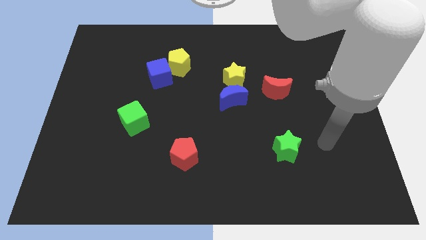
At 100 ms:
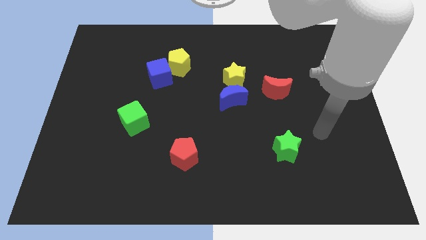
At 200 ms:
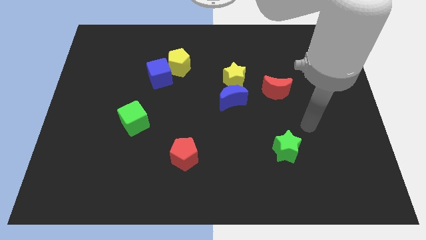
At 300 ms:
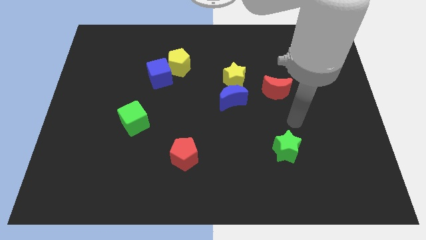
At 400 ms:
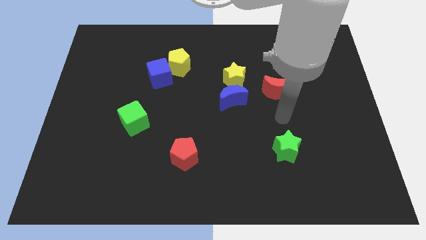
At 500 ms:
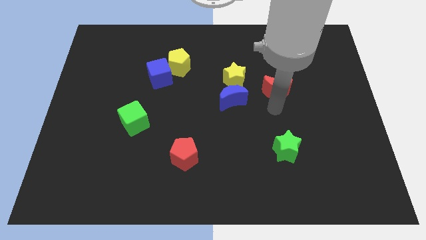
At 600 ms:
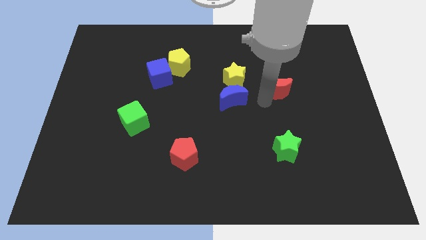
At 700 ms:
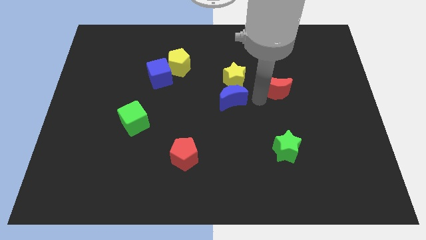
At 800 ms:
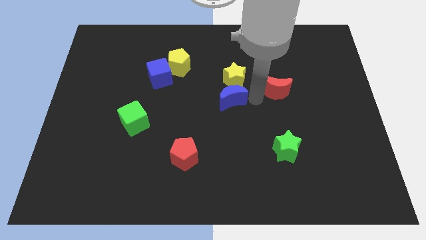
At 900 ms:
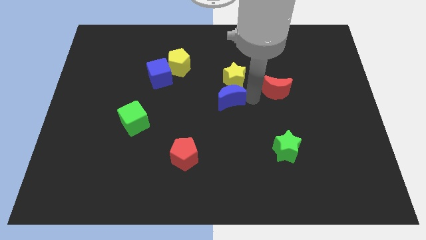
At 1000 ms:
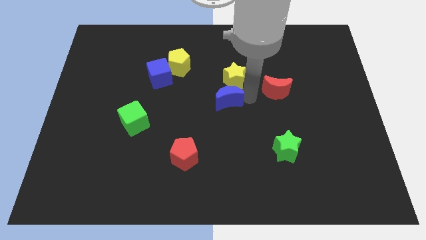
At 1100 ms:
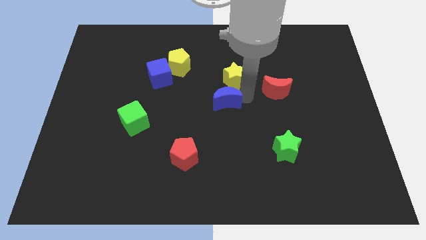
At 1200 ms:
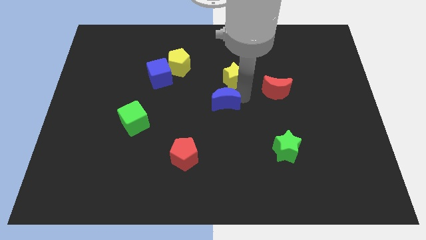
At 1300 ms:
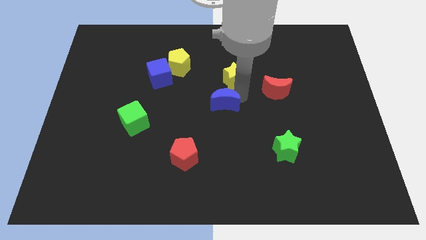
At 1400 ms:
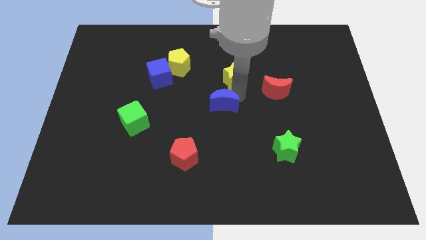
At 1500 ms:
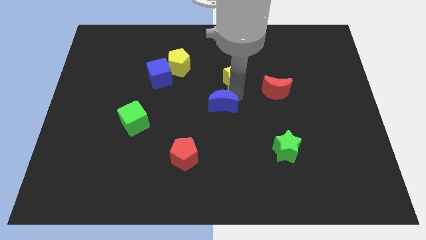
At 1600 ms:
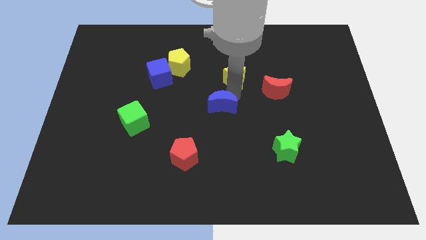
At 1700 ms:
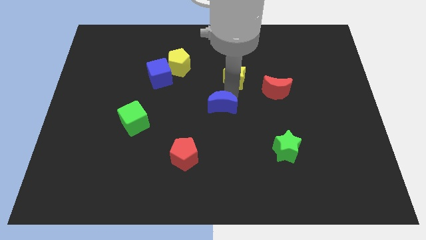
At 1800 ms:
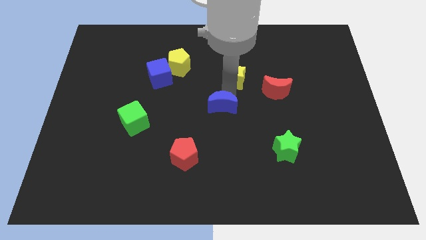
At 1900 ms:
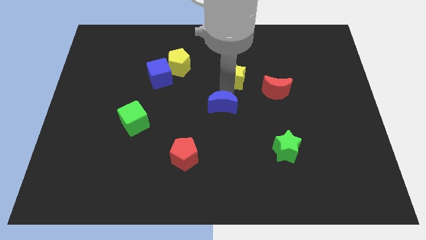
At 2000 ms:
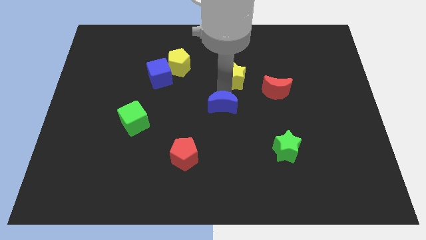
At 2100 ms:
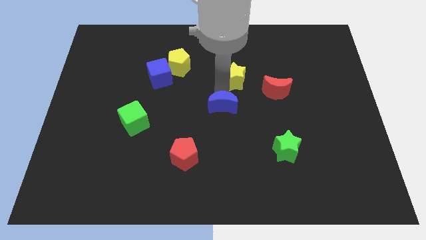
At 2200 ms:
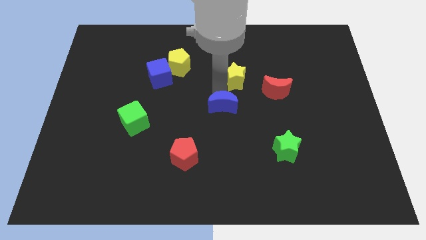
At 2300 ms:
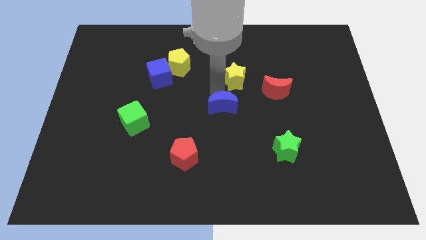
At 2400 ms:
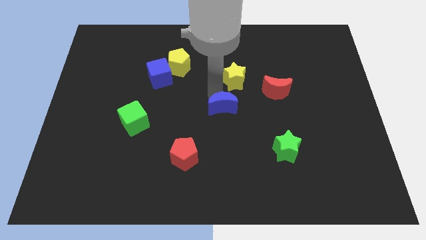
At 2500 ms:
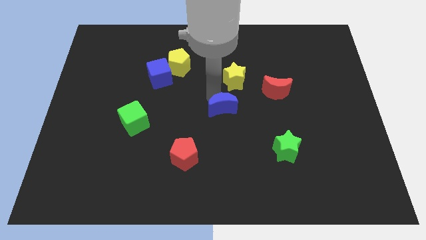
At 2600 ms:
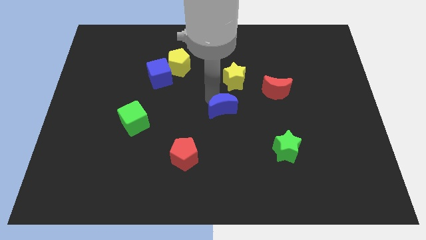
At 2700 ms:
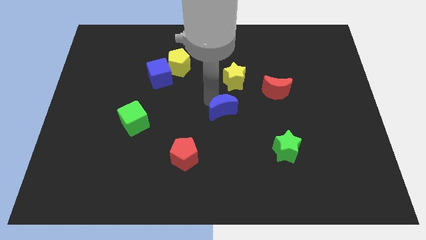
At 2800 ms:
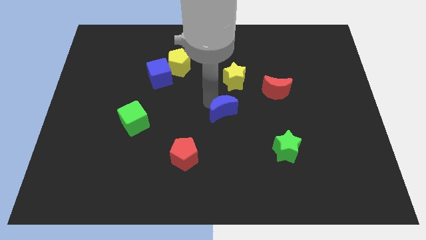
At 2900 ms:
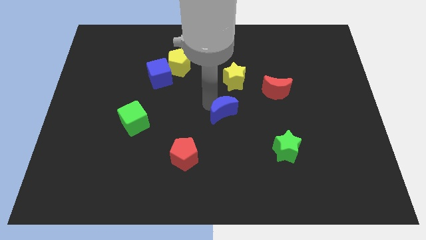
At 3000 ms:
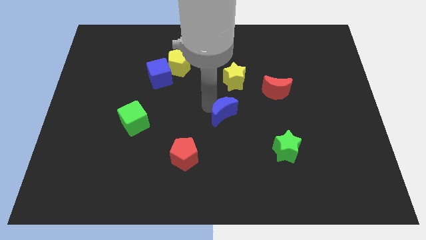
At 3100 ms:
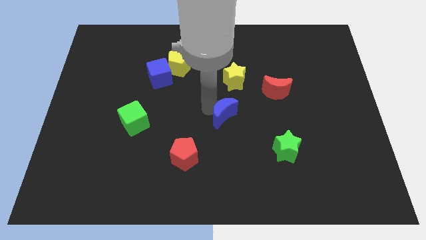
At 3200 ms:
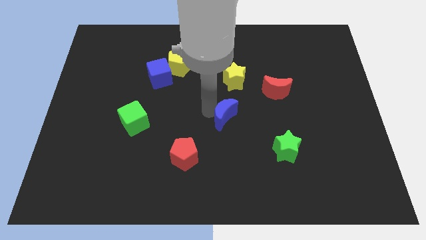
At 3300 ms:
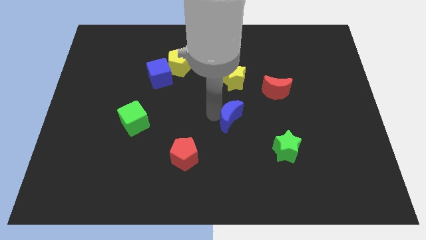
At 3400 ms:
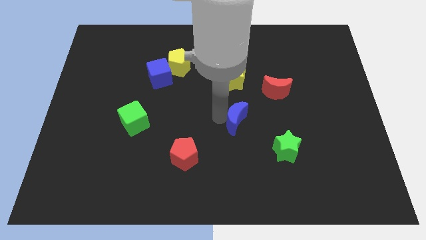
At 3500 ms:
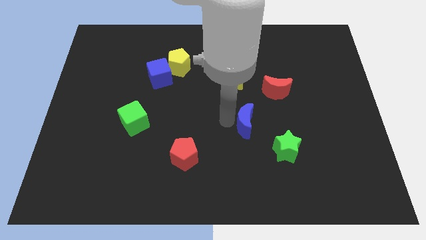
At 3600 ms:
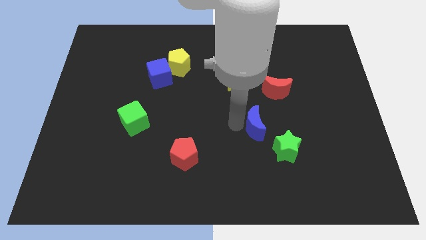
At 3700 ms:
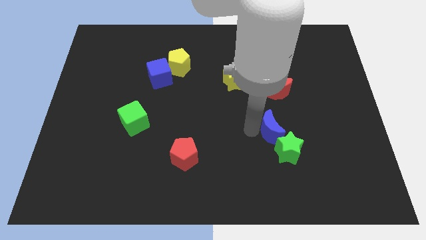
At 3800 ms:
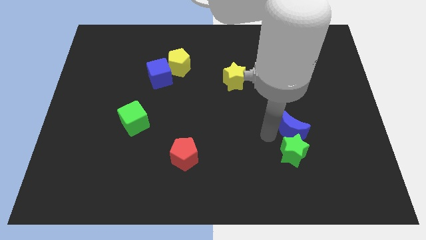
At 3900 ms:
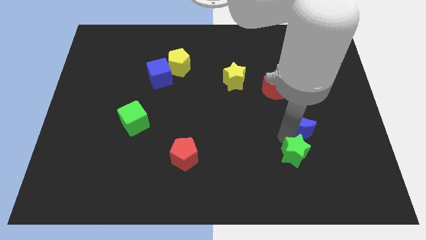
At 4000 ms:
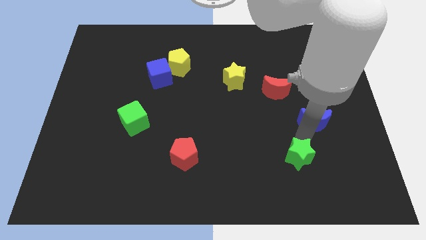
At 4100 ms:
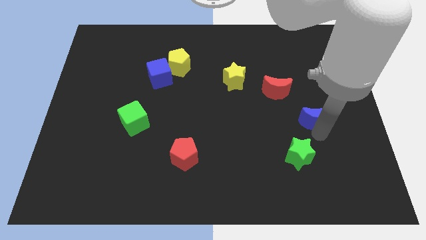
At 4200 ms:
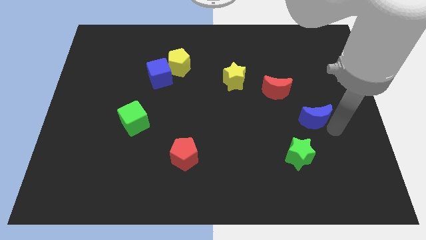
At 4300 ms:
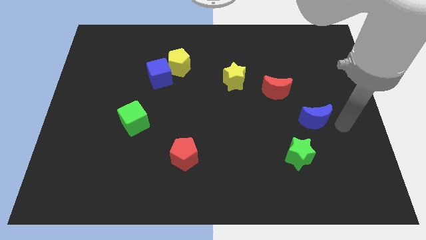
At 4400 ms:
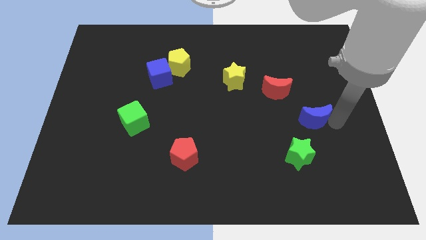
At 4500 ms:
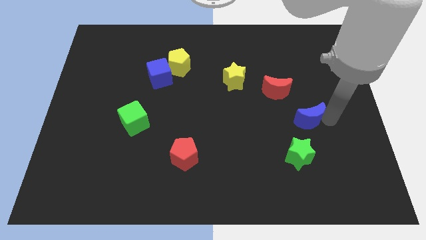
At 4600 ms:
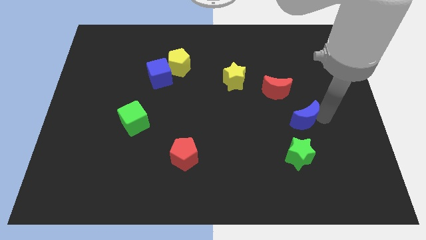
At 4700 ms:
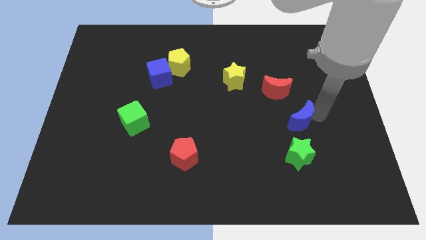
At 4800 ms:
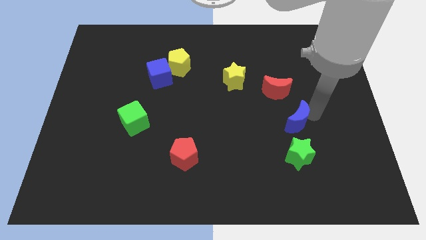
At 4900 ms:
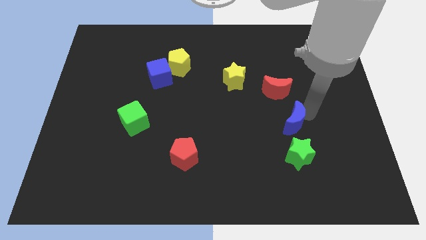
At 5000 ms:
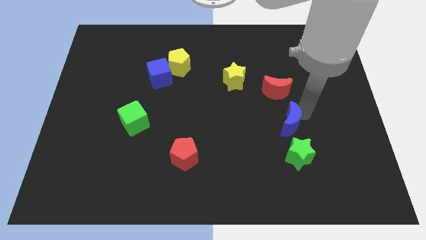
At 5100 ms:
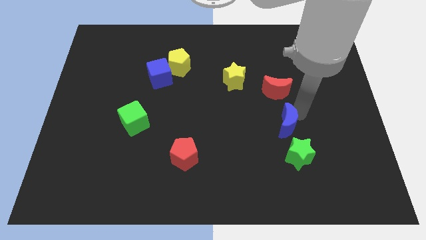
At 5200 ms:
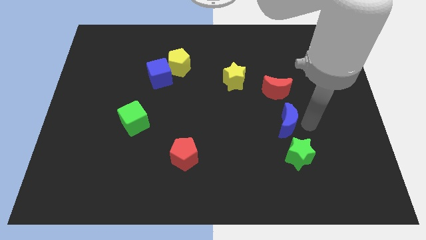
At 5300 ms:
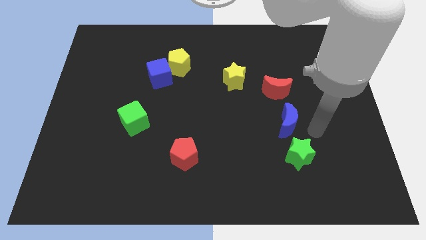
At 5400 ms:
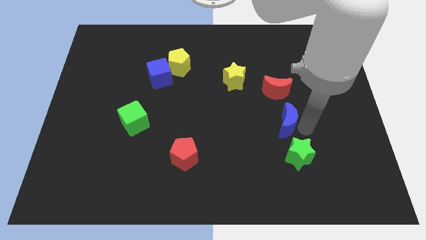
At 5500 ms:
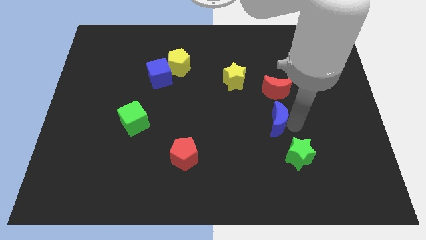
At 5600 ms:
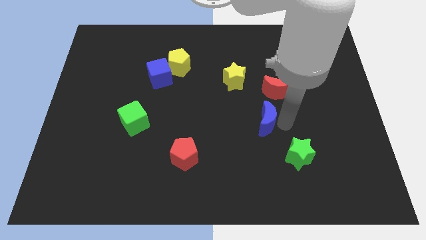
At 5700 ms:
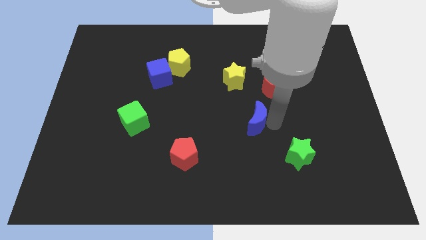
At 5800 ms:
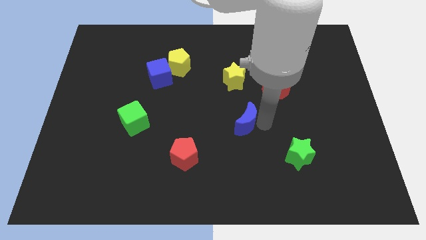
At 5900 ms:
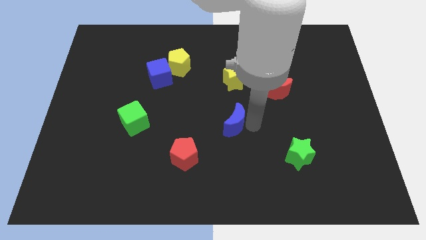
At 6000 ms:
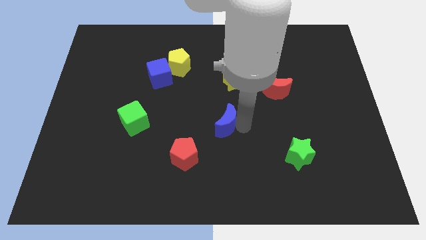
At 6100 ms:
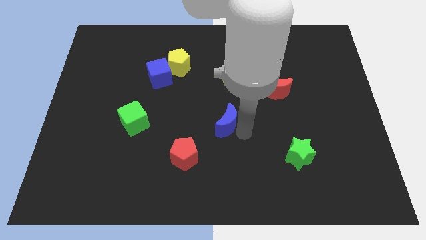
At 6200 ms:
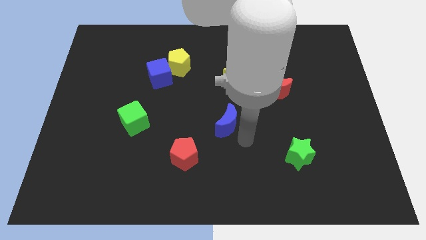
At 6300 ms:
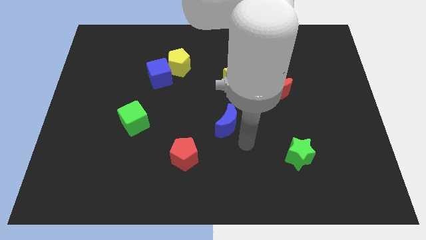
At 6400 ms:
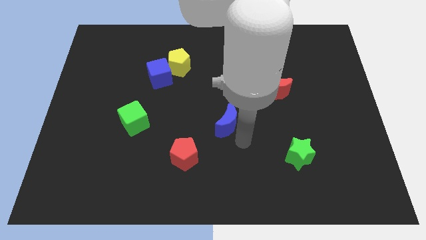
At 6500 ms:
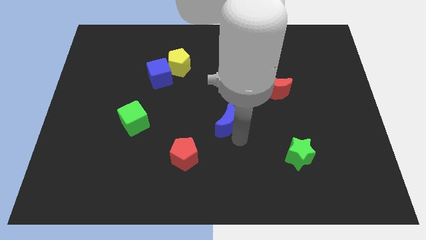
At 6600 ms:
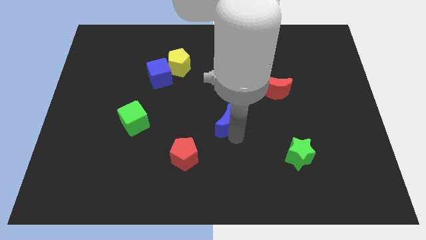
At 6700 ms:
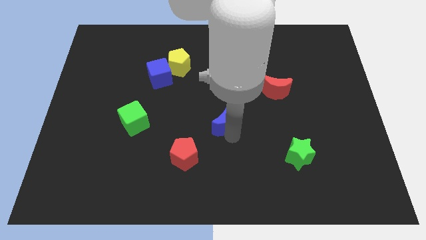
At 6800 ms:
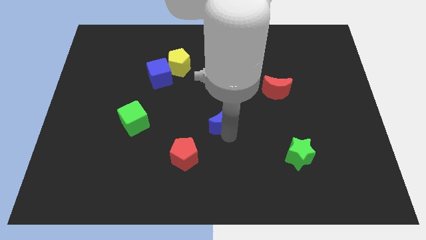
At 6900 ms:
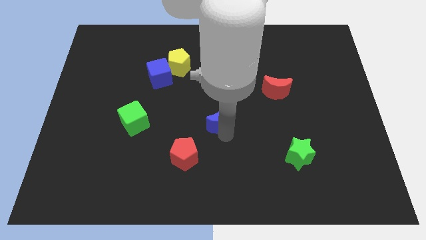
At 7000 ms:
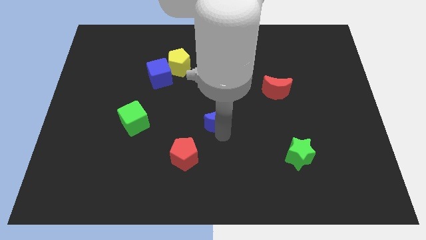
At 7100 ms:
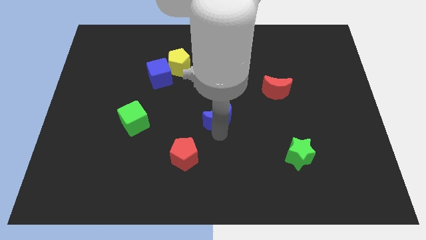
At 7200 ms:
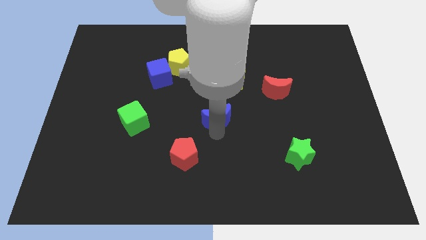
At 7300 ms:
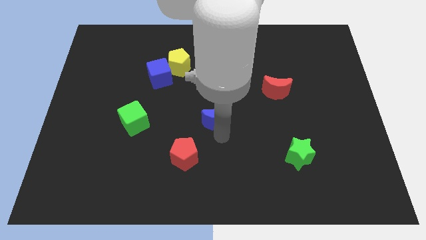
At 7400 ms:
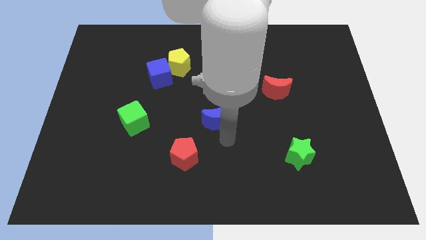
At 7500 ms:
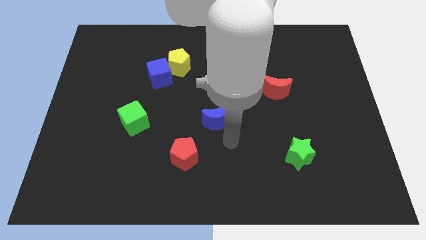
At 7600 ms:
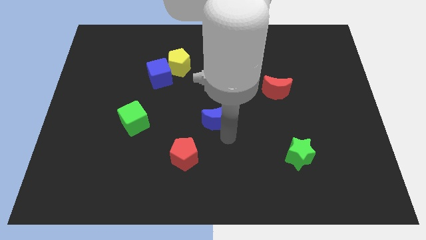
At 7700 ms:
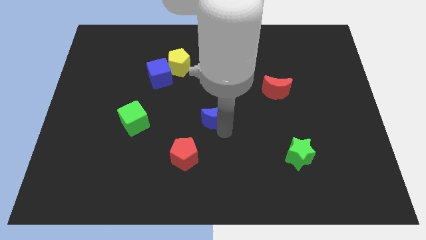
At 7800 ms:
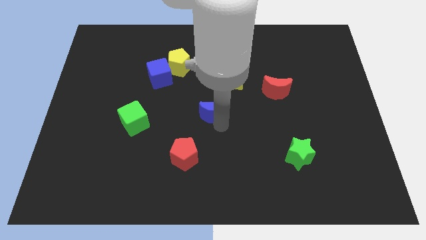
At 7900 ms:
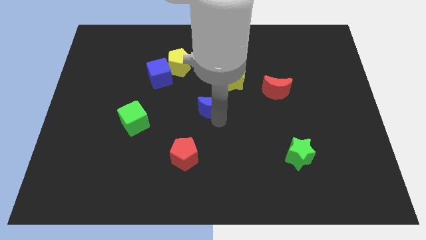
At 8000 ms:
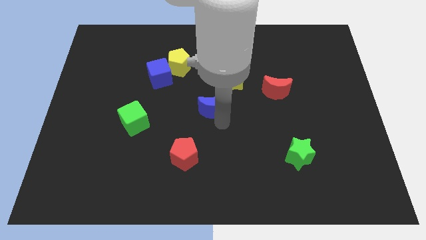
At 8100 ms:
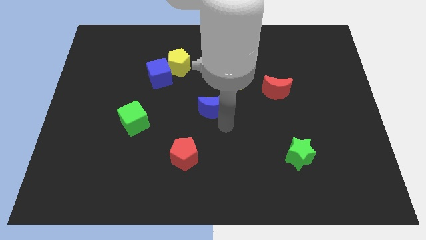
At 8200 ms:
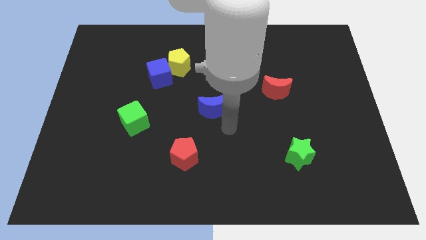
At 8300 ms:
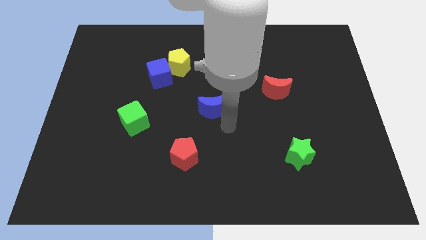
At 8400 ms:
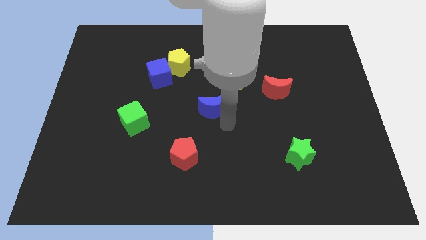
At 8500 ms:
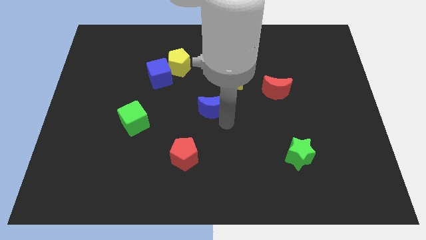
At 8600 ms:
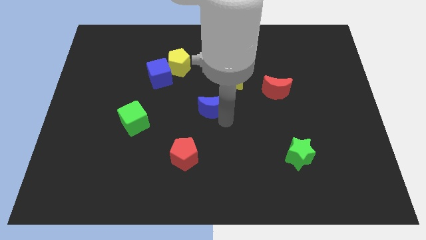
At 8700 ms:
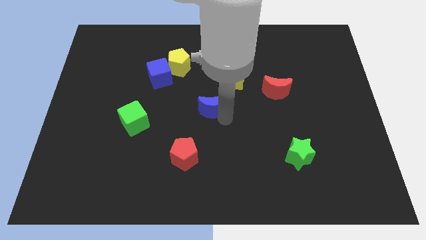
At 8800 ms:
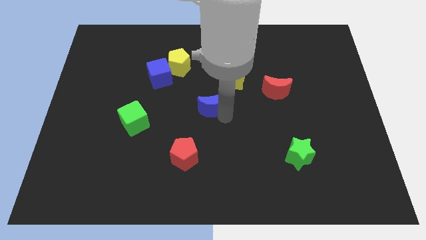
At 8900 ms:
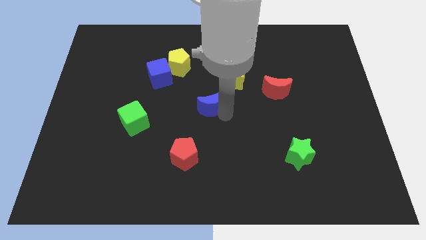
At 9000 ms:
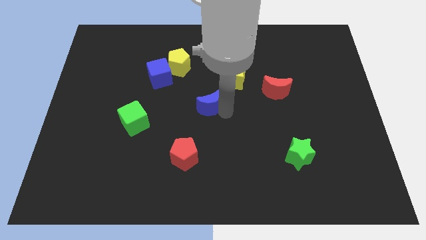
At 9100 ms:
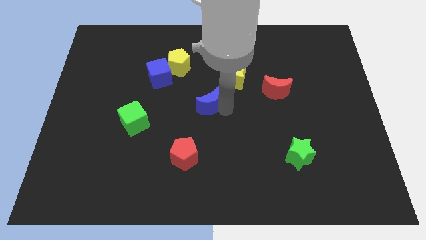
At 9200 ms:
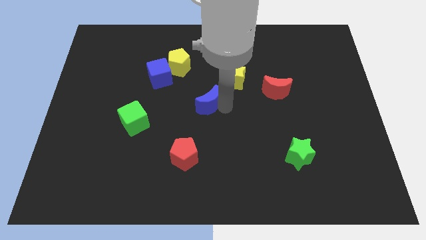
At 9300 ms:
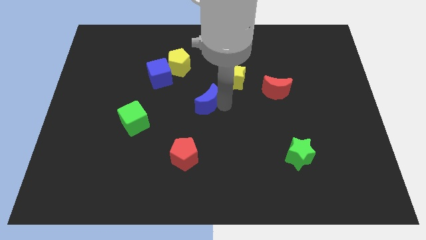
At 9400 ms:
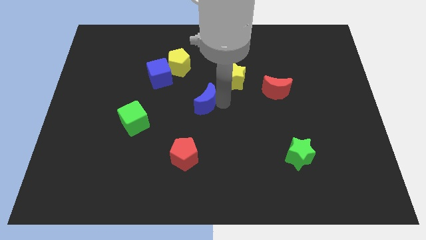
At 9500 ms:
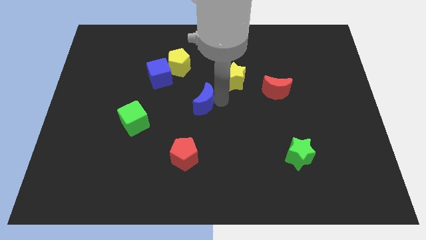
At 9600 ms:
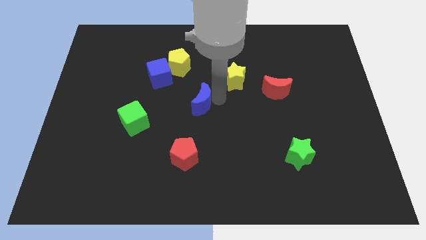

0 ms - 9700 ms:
slide the blue moon left a bit
